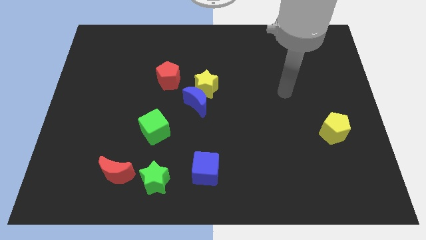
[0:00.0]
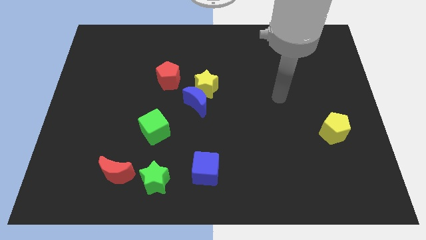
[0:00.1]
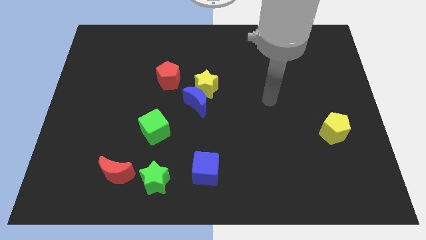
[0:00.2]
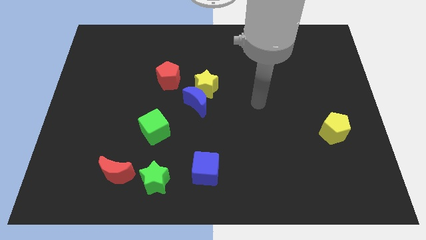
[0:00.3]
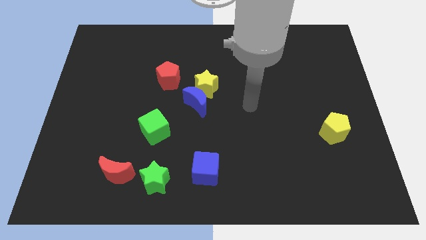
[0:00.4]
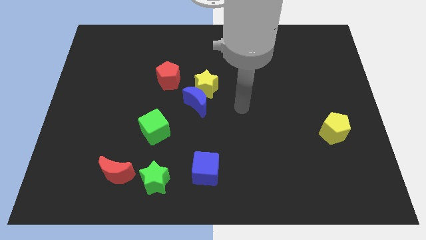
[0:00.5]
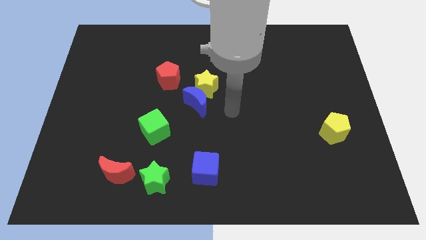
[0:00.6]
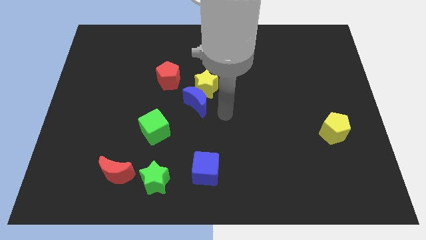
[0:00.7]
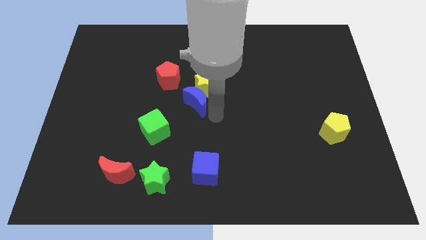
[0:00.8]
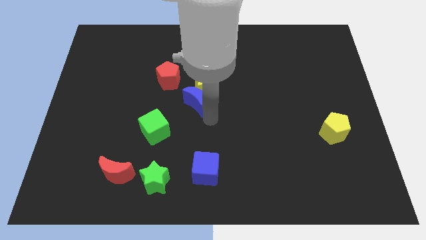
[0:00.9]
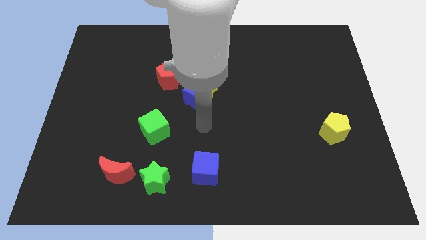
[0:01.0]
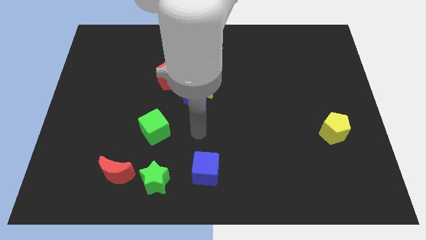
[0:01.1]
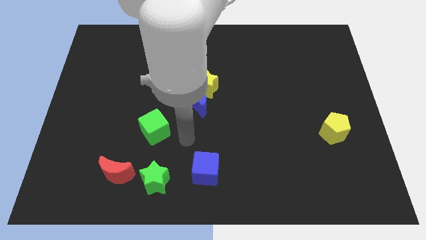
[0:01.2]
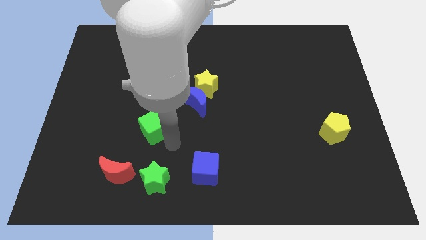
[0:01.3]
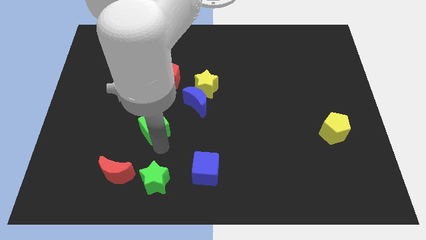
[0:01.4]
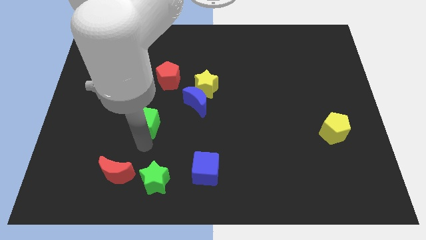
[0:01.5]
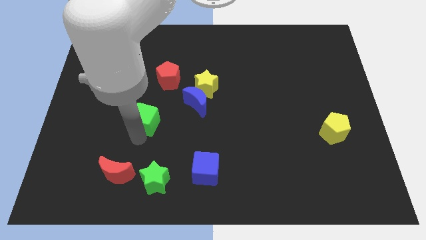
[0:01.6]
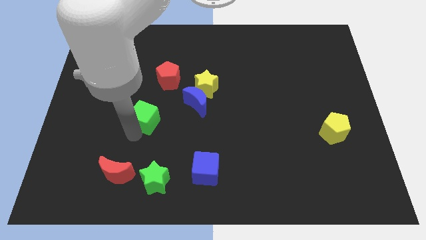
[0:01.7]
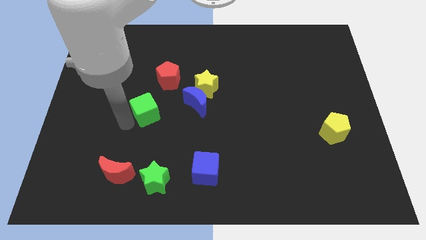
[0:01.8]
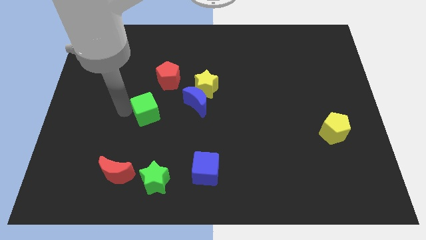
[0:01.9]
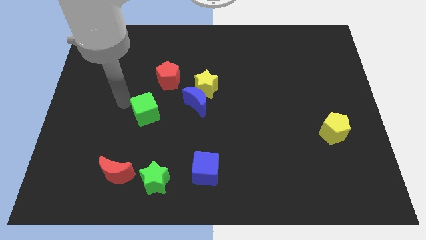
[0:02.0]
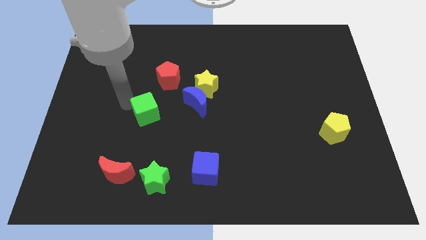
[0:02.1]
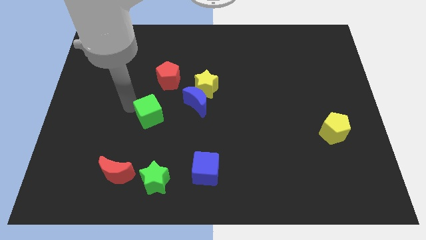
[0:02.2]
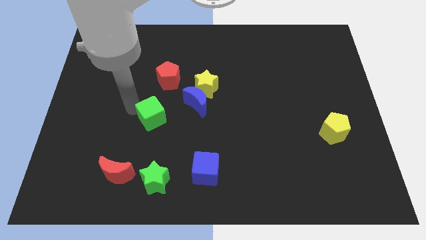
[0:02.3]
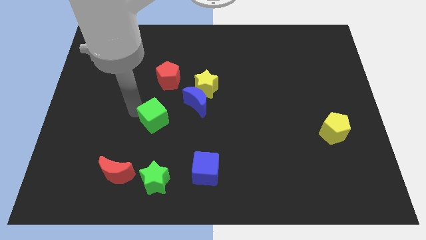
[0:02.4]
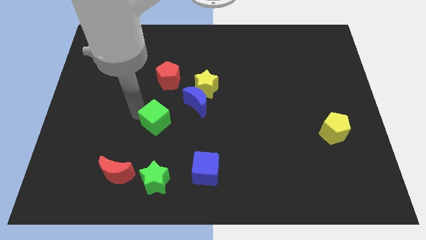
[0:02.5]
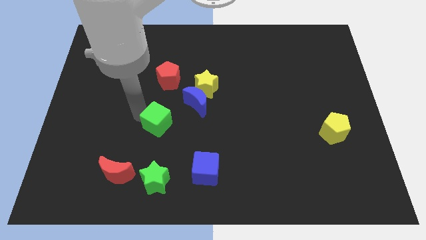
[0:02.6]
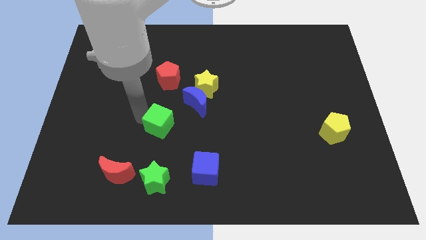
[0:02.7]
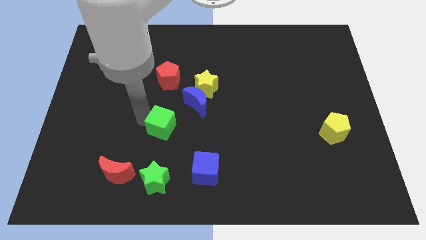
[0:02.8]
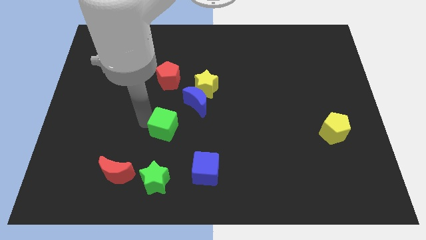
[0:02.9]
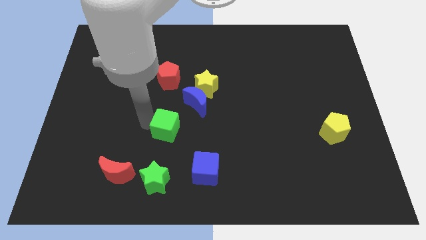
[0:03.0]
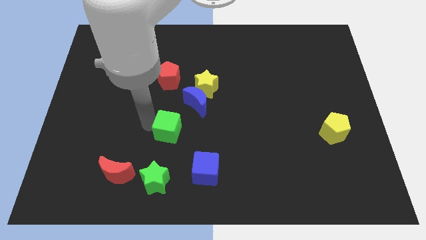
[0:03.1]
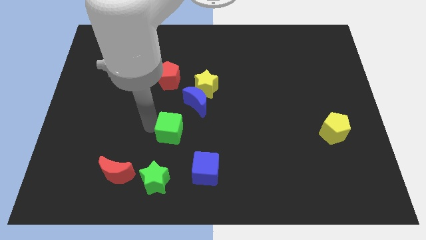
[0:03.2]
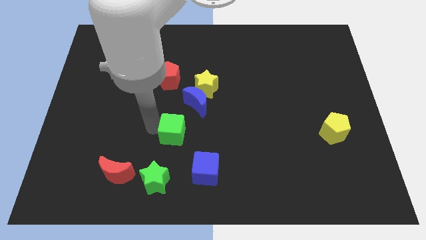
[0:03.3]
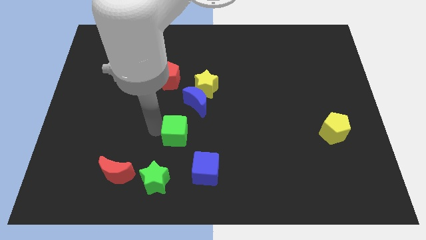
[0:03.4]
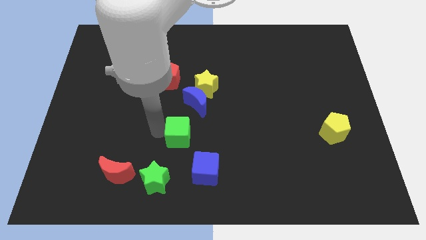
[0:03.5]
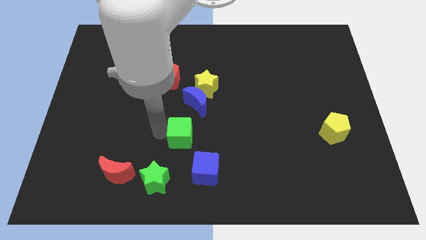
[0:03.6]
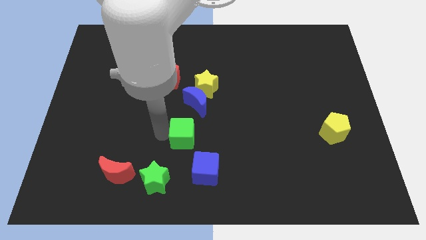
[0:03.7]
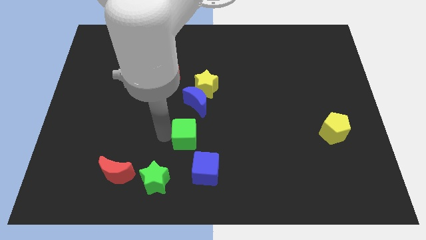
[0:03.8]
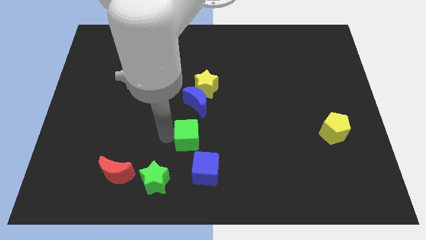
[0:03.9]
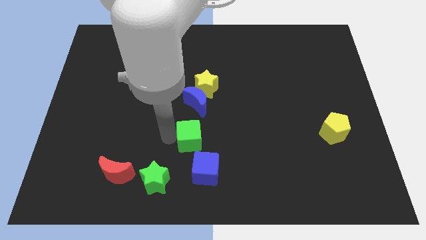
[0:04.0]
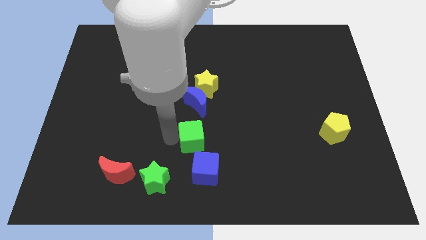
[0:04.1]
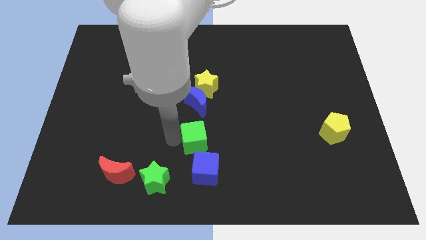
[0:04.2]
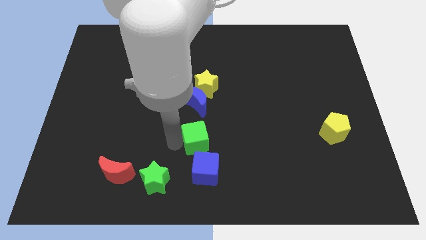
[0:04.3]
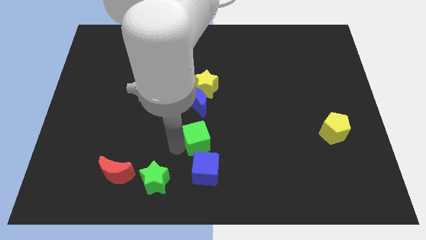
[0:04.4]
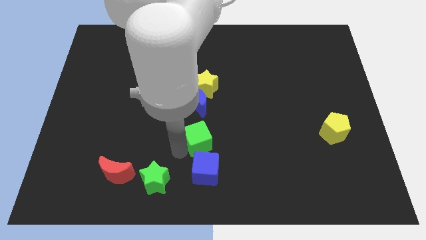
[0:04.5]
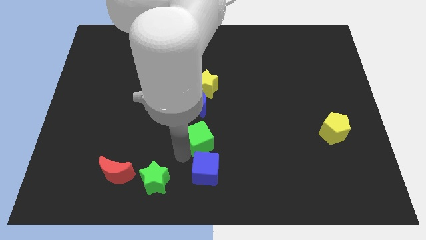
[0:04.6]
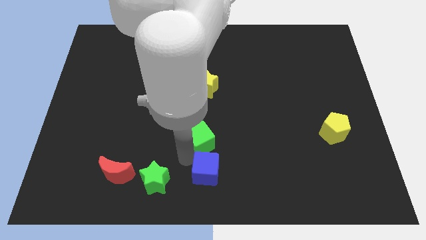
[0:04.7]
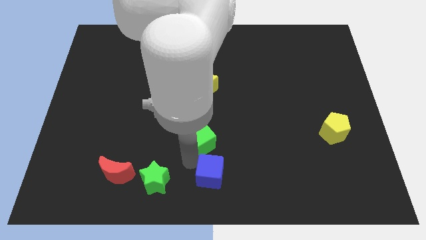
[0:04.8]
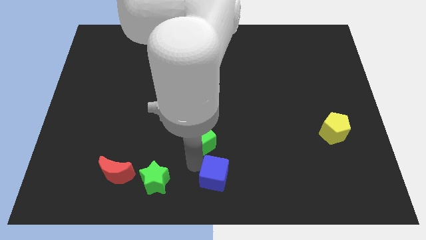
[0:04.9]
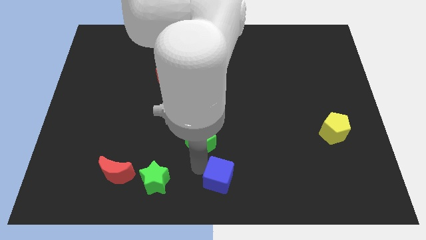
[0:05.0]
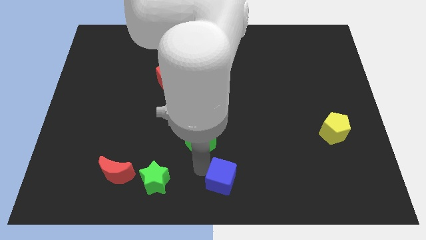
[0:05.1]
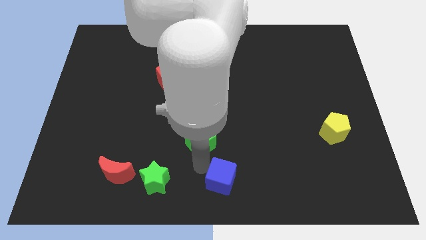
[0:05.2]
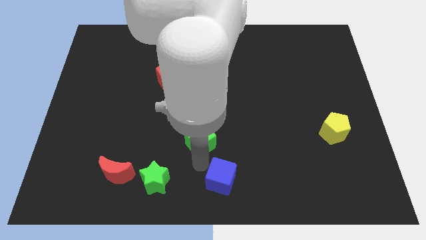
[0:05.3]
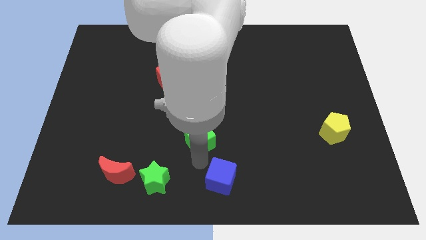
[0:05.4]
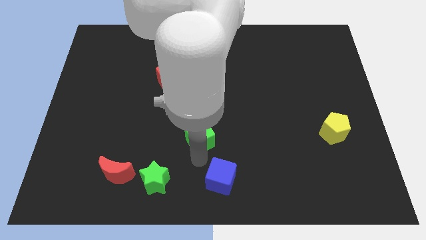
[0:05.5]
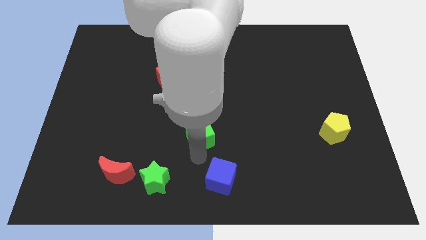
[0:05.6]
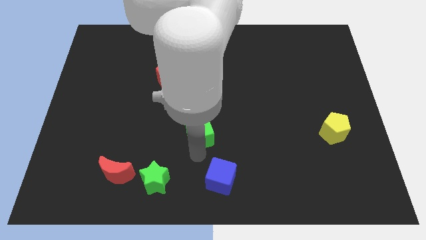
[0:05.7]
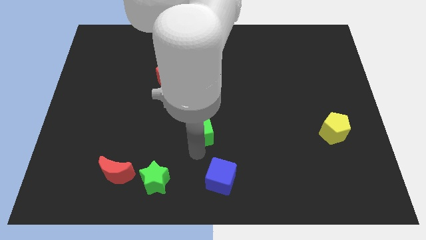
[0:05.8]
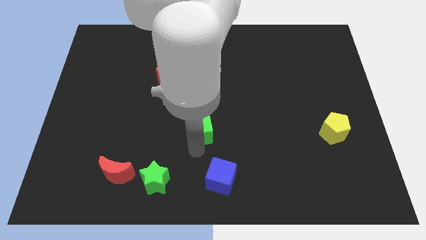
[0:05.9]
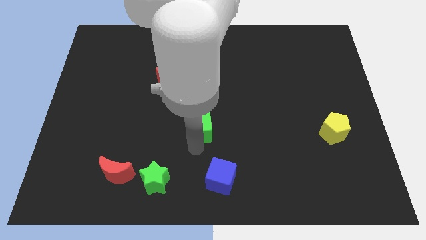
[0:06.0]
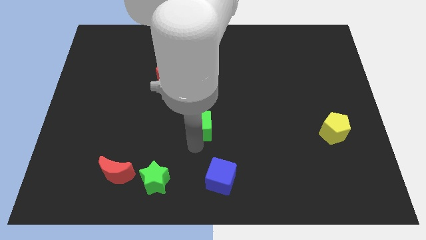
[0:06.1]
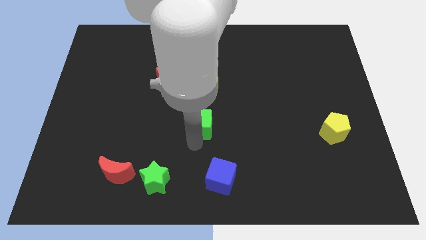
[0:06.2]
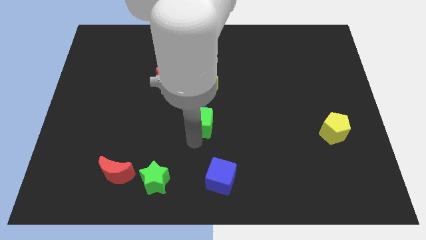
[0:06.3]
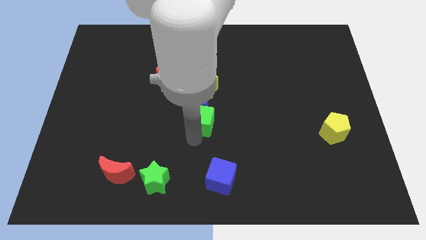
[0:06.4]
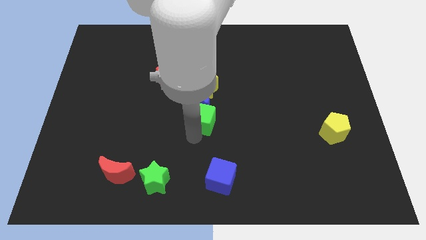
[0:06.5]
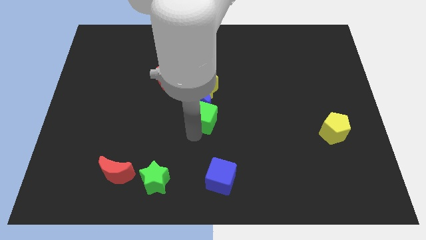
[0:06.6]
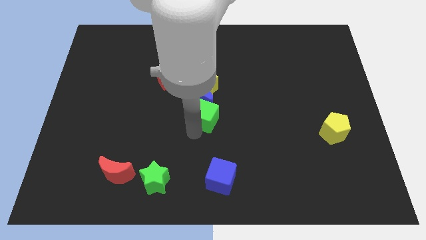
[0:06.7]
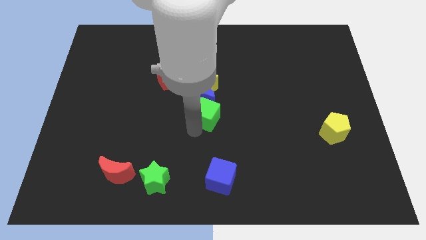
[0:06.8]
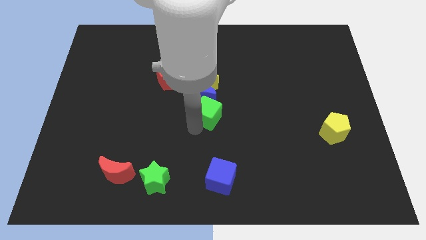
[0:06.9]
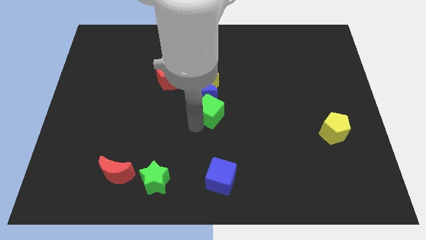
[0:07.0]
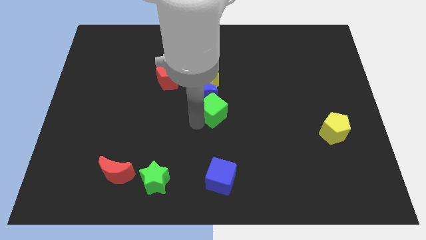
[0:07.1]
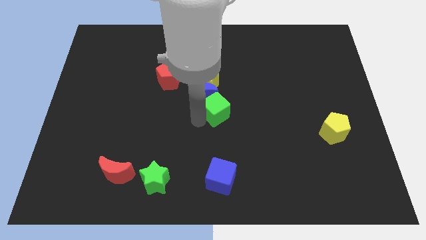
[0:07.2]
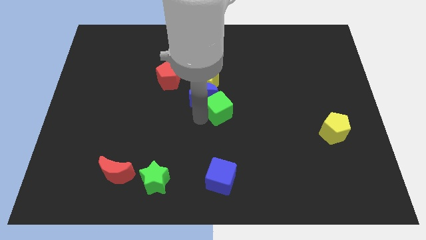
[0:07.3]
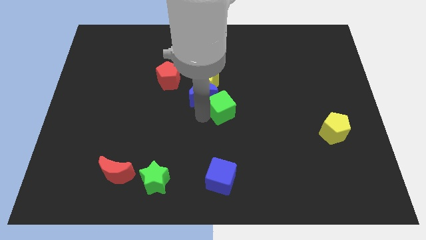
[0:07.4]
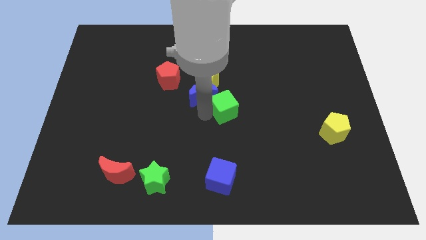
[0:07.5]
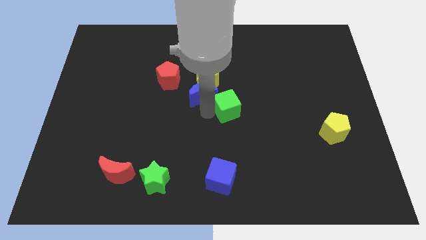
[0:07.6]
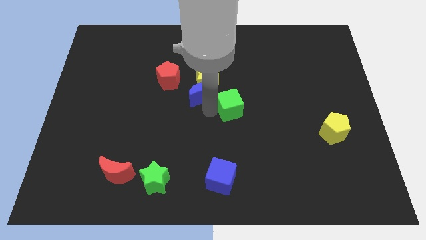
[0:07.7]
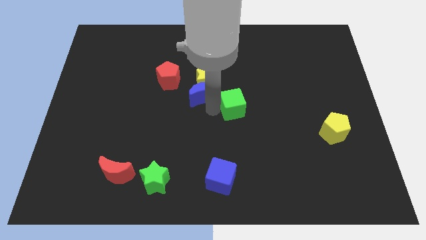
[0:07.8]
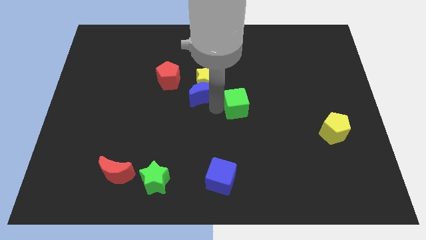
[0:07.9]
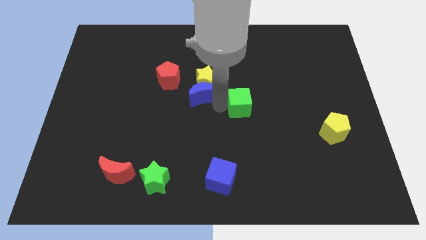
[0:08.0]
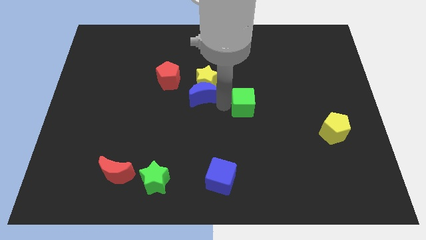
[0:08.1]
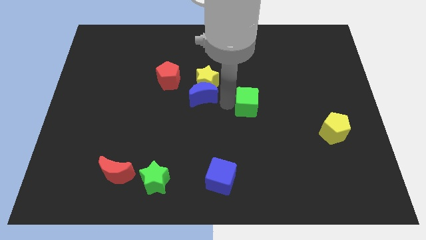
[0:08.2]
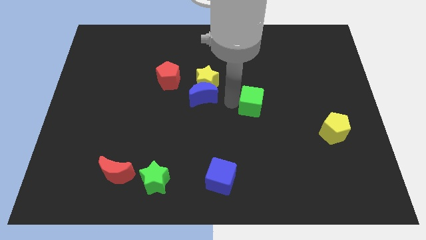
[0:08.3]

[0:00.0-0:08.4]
slide the green cube right
